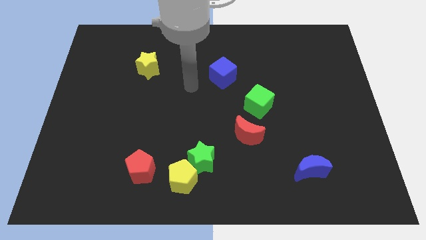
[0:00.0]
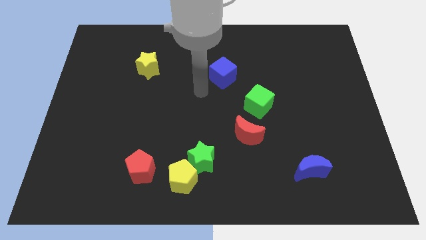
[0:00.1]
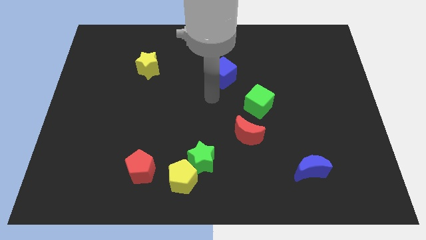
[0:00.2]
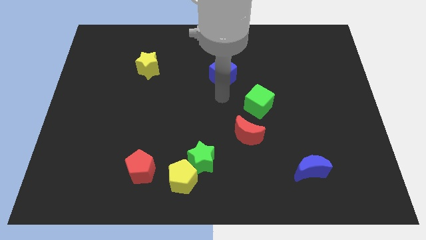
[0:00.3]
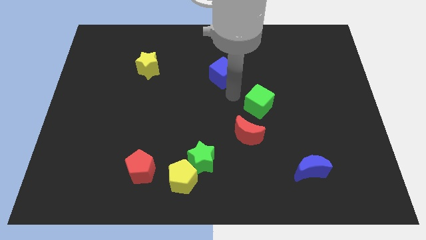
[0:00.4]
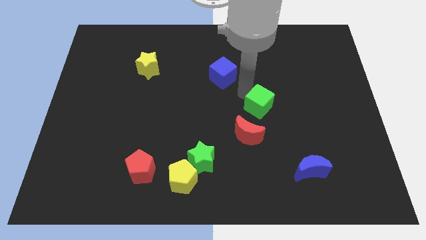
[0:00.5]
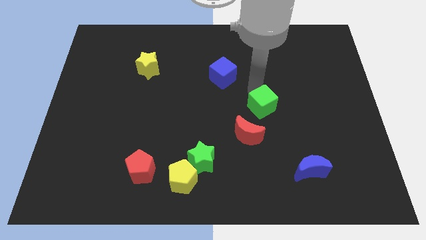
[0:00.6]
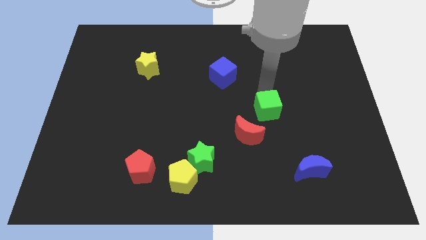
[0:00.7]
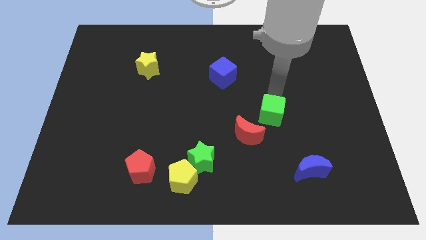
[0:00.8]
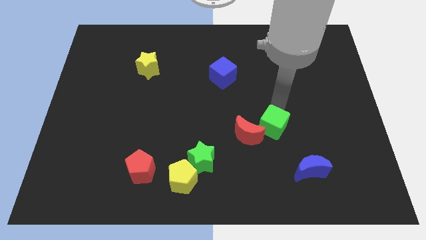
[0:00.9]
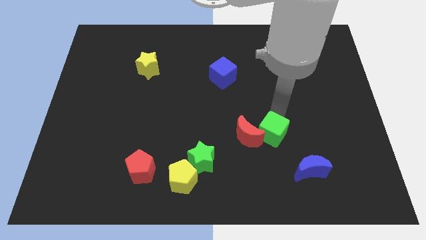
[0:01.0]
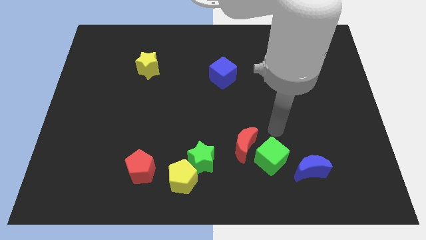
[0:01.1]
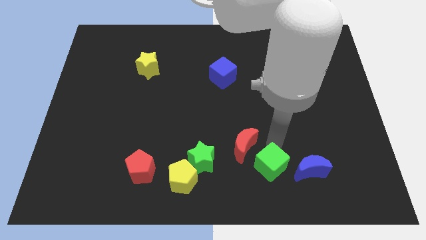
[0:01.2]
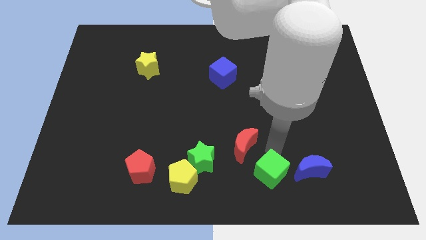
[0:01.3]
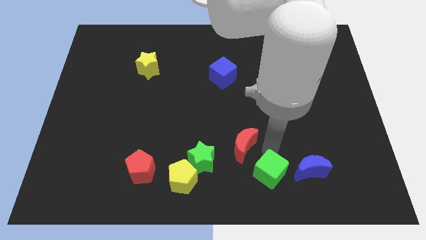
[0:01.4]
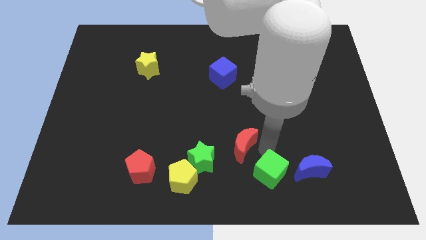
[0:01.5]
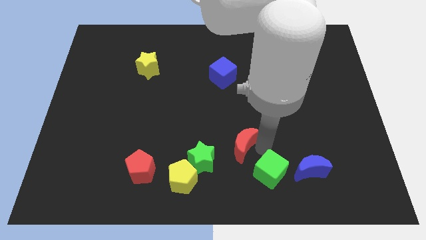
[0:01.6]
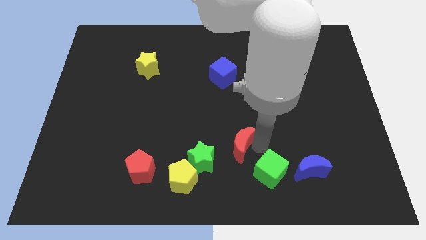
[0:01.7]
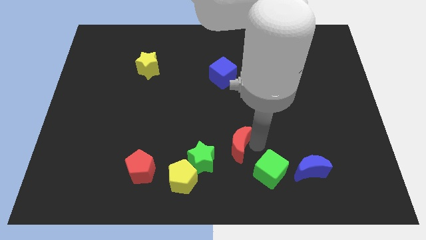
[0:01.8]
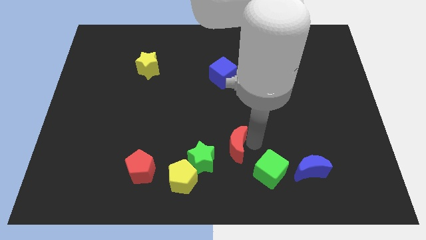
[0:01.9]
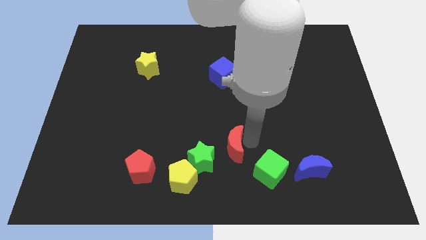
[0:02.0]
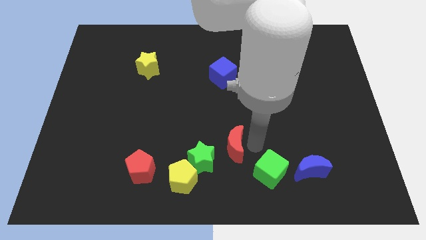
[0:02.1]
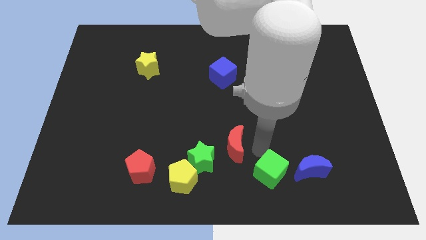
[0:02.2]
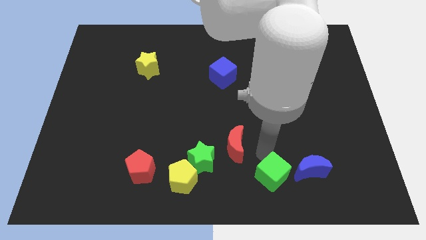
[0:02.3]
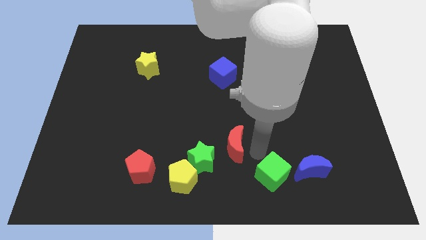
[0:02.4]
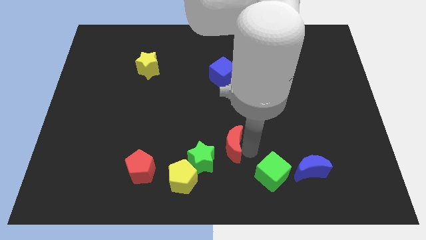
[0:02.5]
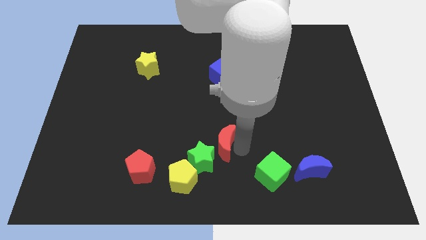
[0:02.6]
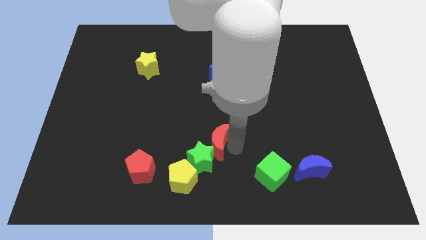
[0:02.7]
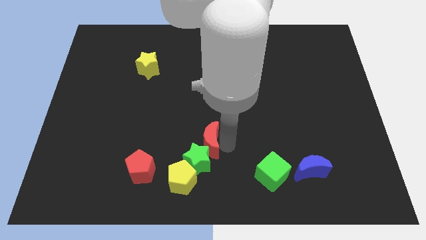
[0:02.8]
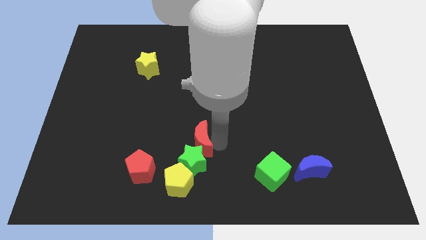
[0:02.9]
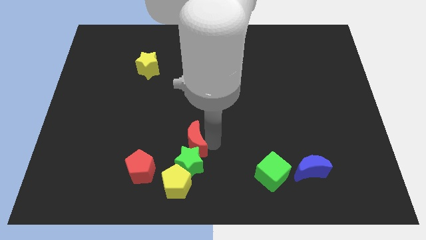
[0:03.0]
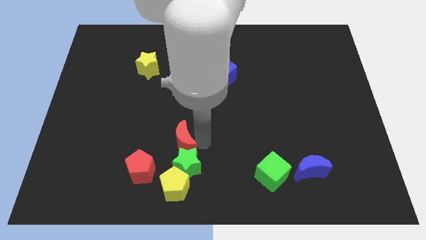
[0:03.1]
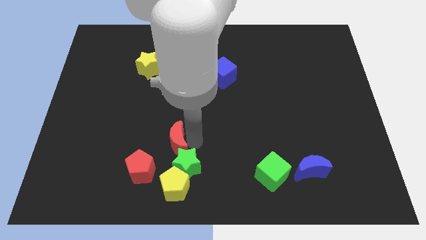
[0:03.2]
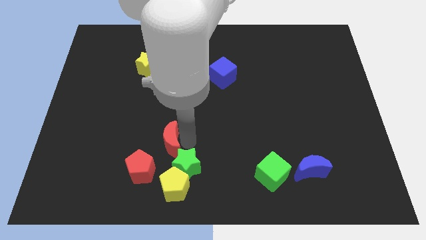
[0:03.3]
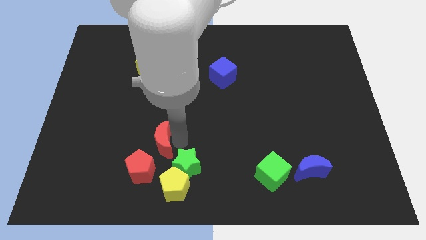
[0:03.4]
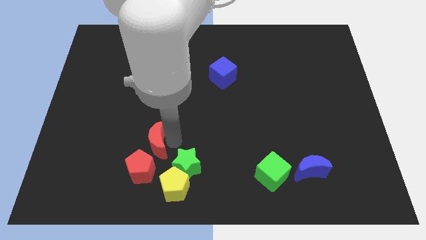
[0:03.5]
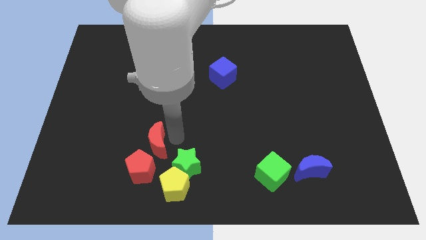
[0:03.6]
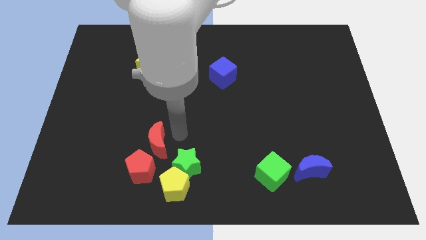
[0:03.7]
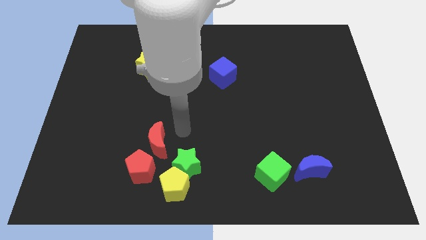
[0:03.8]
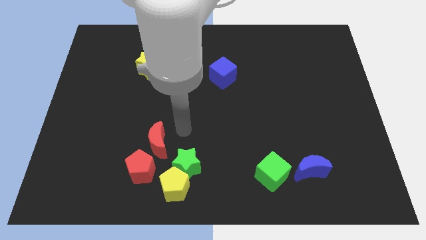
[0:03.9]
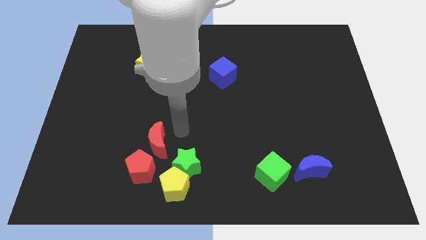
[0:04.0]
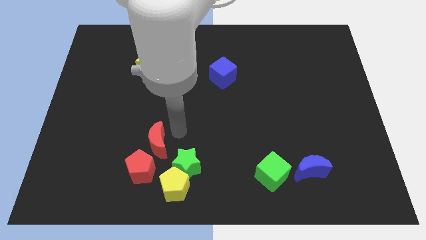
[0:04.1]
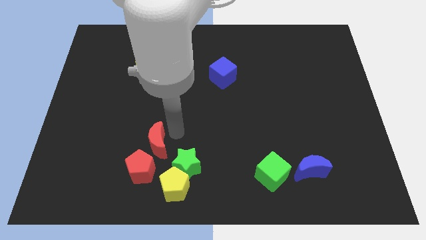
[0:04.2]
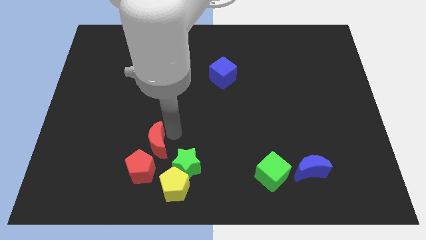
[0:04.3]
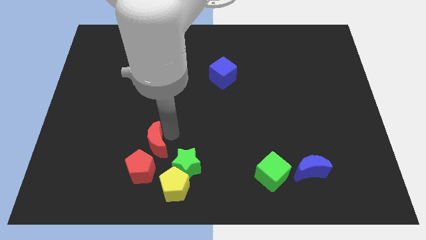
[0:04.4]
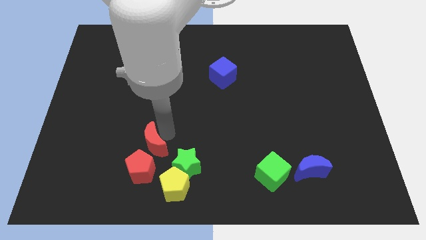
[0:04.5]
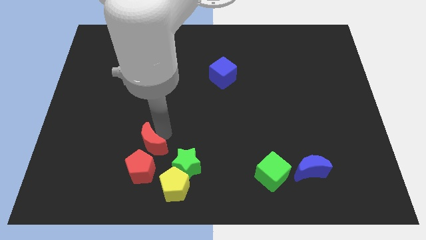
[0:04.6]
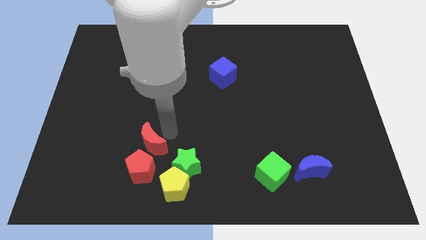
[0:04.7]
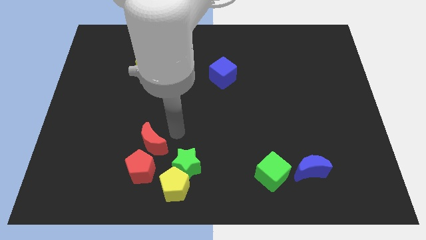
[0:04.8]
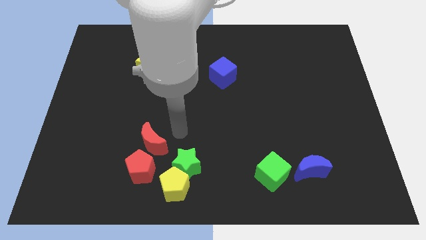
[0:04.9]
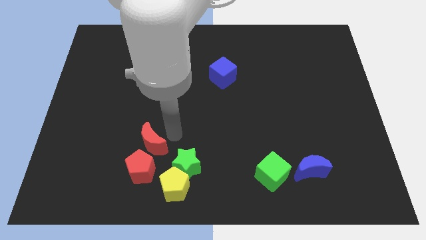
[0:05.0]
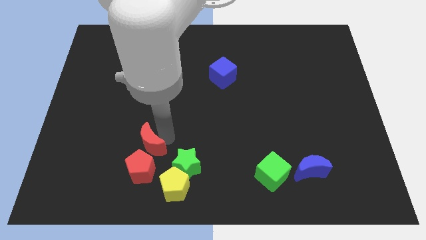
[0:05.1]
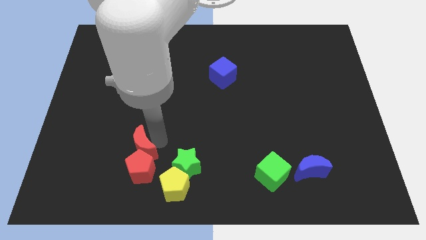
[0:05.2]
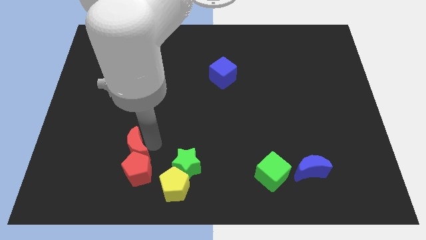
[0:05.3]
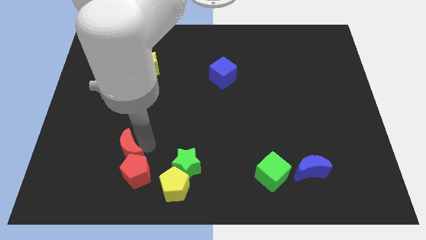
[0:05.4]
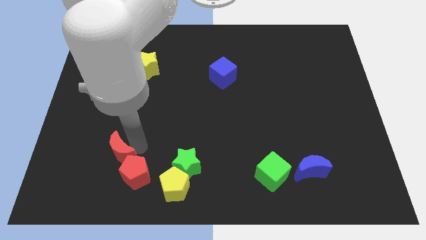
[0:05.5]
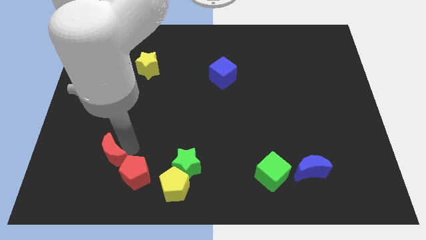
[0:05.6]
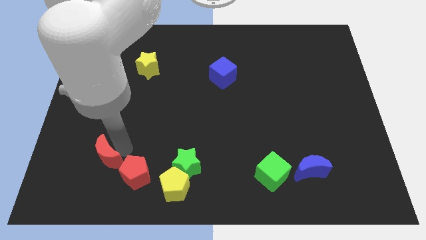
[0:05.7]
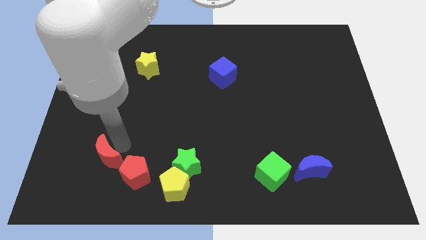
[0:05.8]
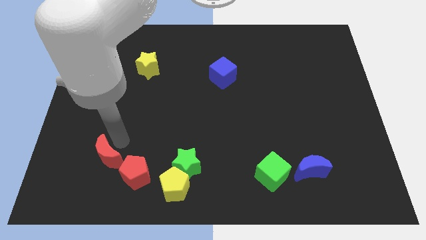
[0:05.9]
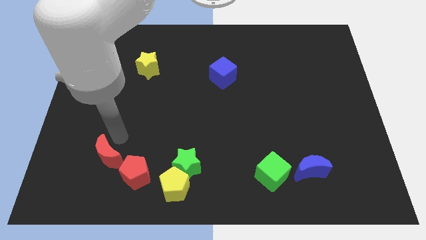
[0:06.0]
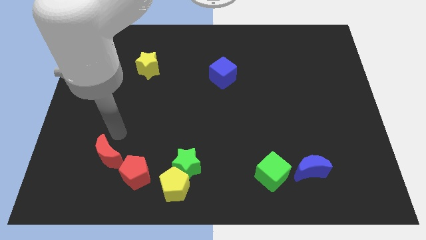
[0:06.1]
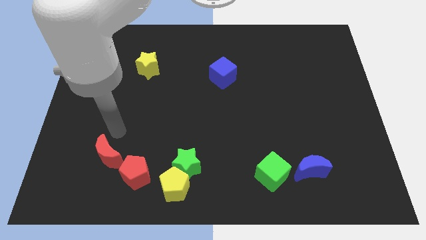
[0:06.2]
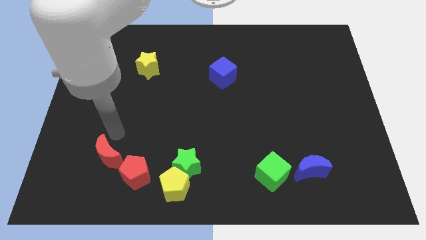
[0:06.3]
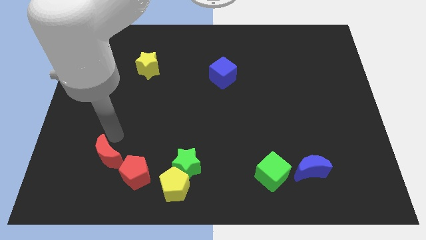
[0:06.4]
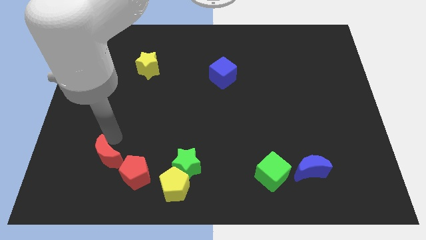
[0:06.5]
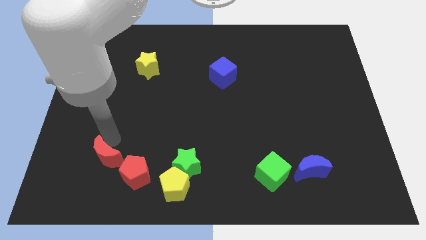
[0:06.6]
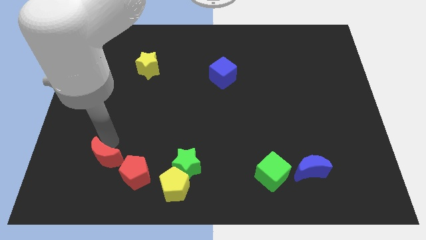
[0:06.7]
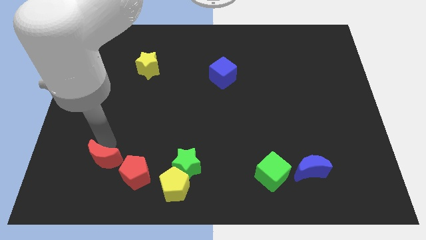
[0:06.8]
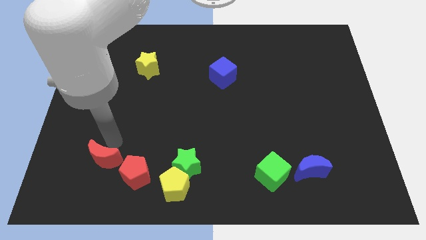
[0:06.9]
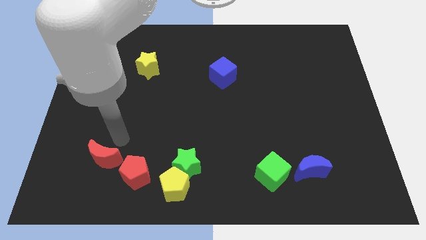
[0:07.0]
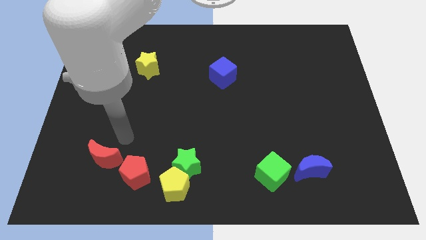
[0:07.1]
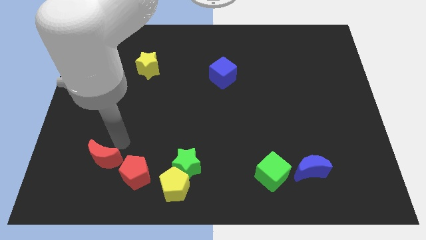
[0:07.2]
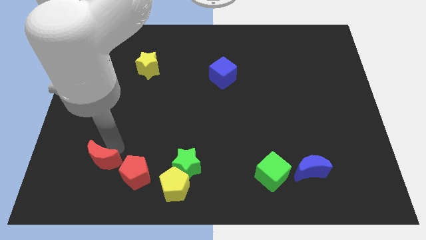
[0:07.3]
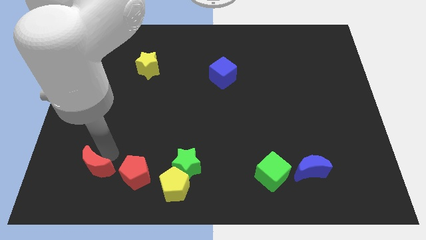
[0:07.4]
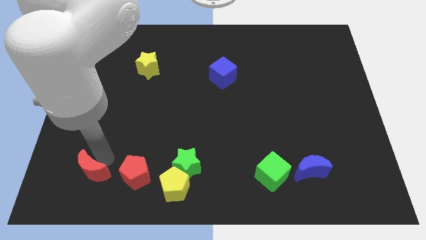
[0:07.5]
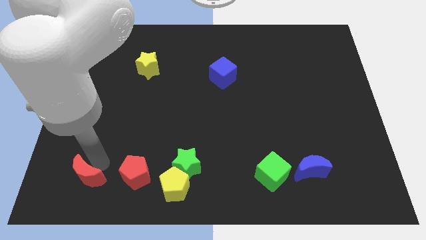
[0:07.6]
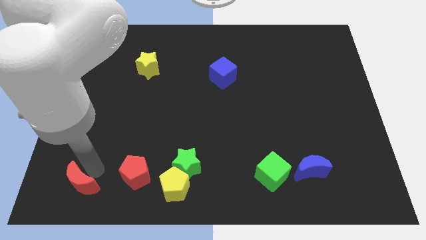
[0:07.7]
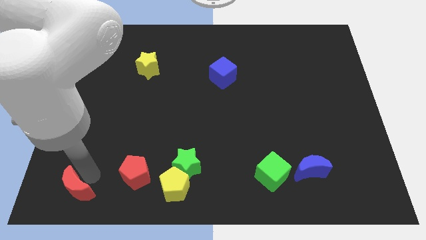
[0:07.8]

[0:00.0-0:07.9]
push the red moon to the bottom left of the board

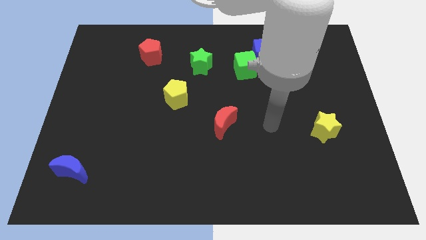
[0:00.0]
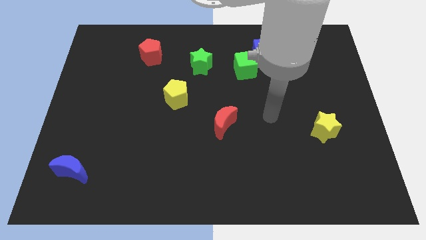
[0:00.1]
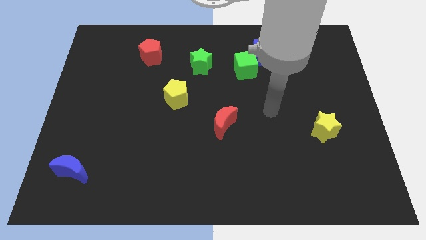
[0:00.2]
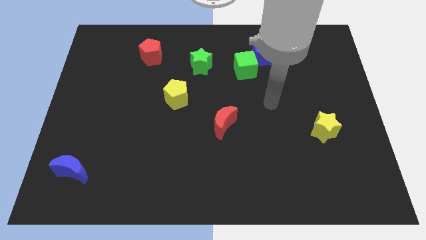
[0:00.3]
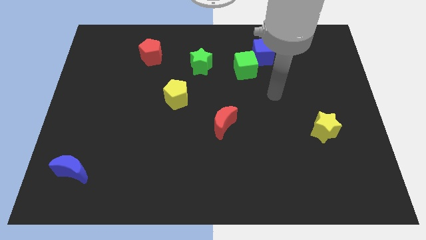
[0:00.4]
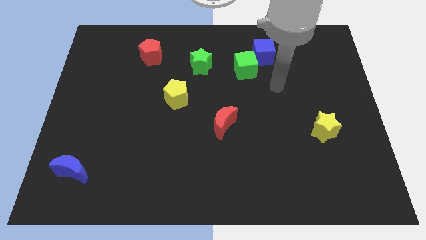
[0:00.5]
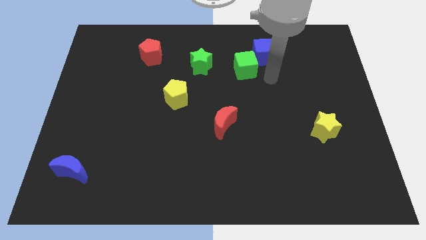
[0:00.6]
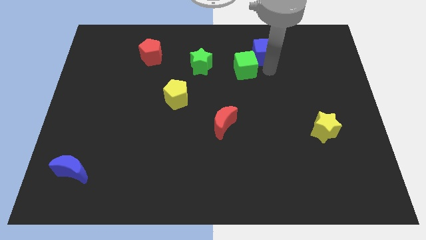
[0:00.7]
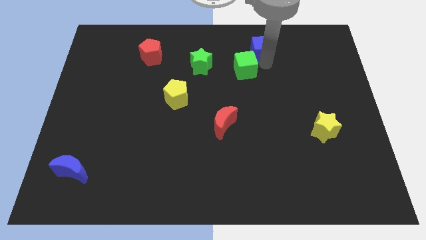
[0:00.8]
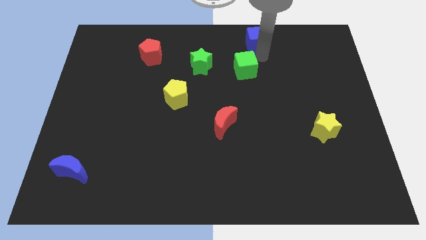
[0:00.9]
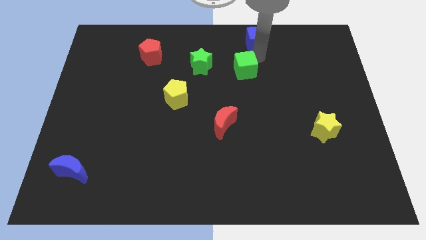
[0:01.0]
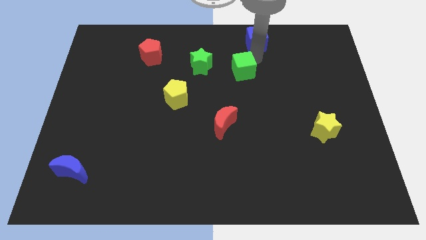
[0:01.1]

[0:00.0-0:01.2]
put the green cube to the center
